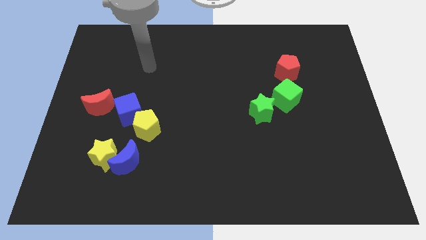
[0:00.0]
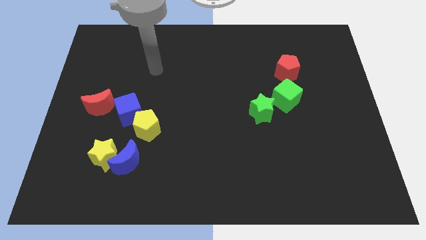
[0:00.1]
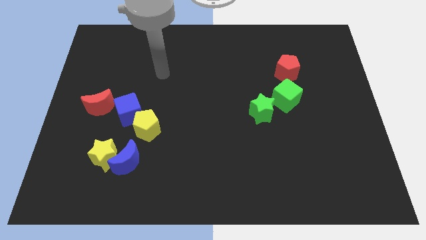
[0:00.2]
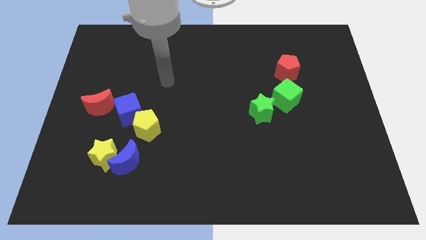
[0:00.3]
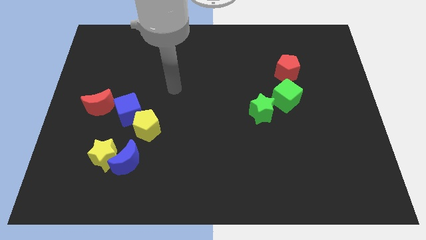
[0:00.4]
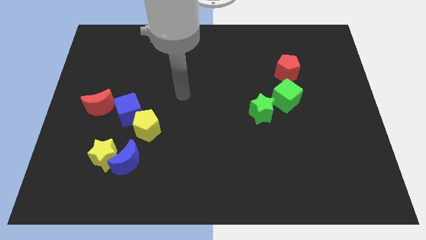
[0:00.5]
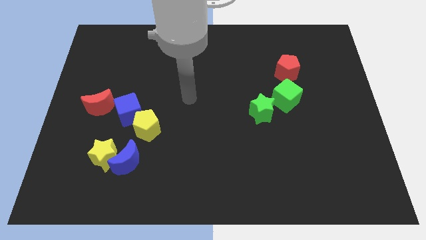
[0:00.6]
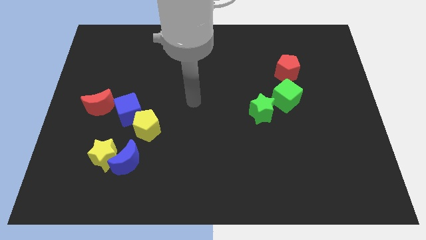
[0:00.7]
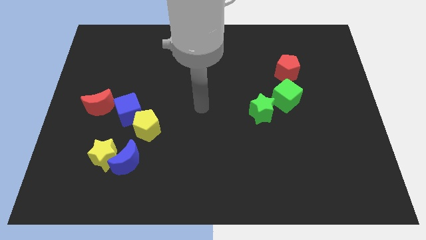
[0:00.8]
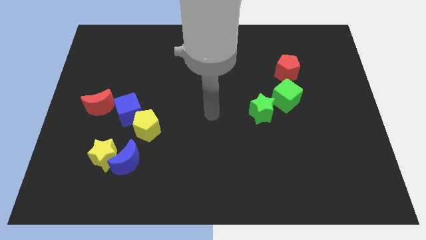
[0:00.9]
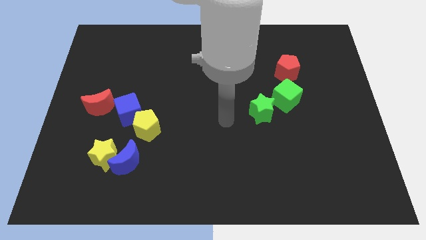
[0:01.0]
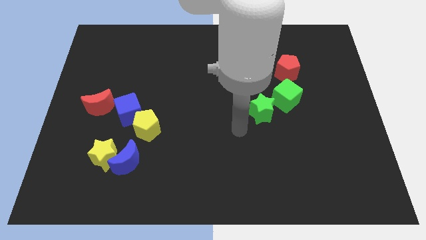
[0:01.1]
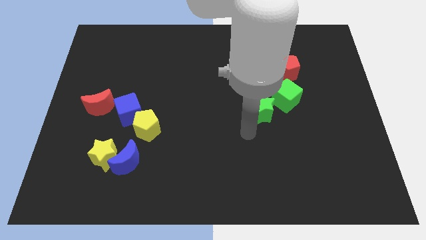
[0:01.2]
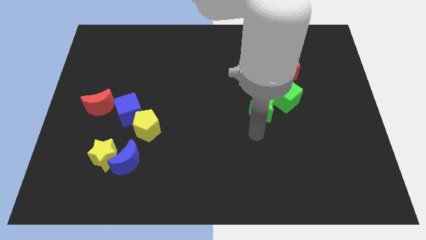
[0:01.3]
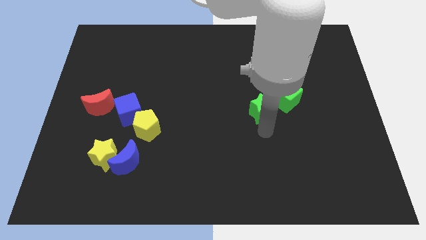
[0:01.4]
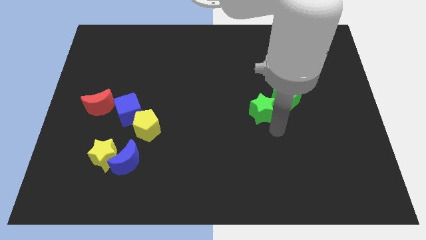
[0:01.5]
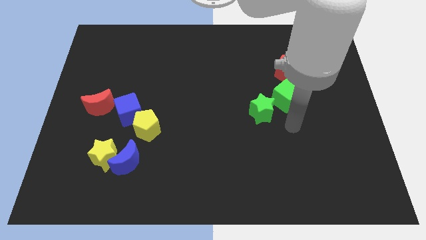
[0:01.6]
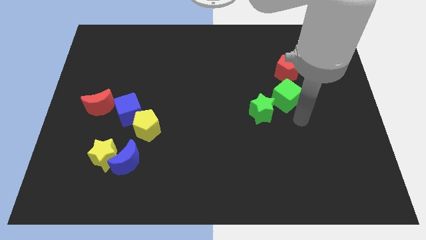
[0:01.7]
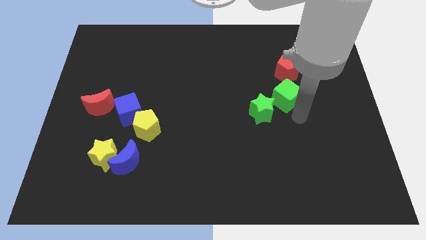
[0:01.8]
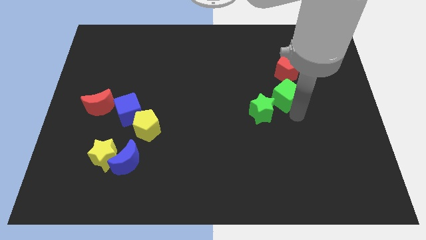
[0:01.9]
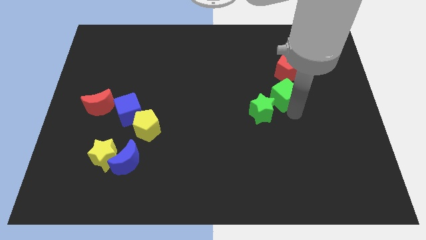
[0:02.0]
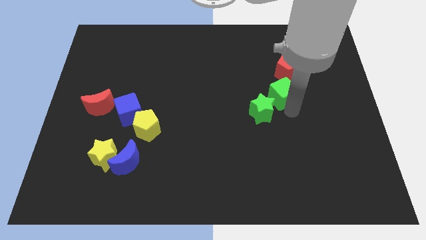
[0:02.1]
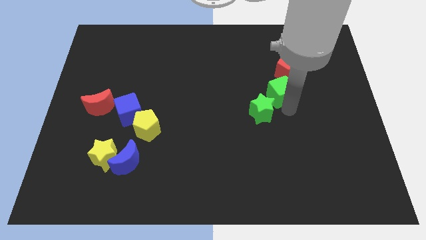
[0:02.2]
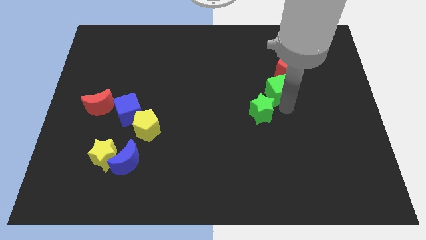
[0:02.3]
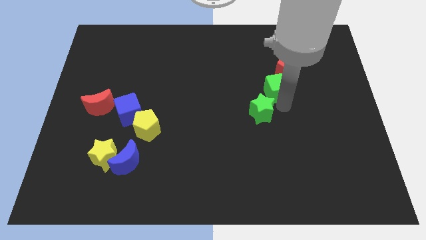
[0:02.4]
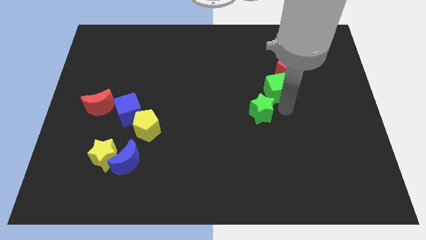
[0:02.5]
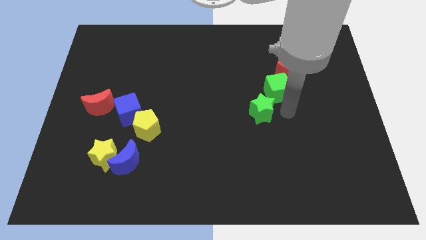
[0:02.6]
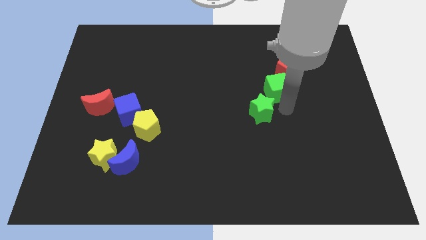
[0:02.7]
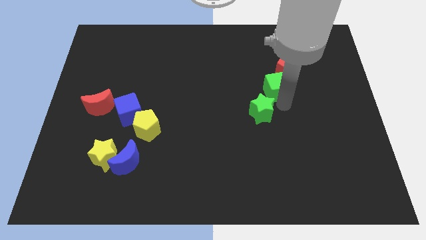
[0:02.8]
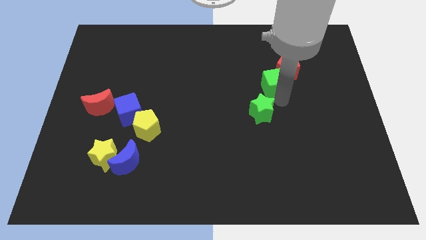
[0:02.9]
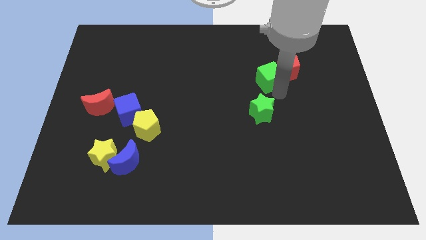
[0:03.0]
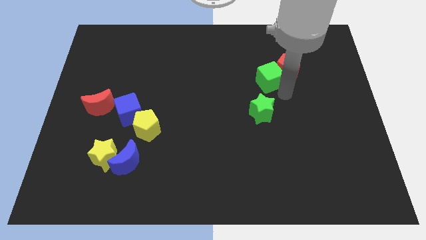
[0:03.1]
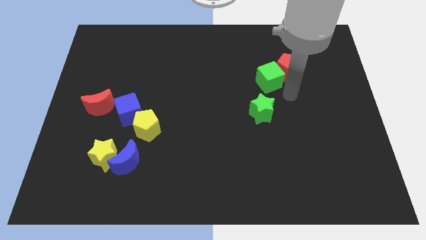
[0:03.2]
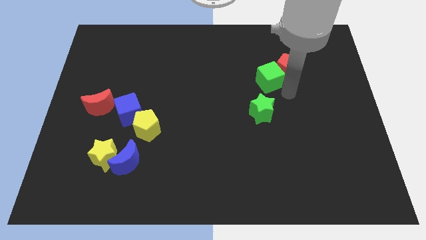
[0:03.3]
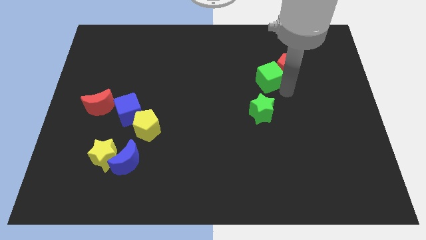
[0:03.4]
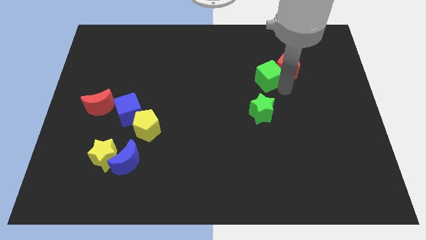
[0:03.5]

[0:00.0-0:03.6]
slide the green cube upwards and left a little bit

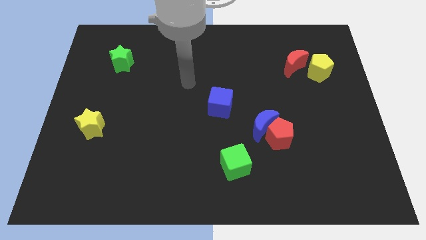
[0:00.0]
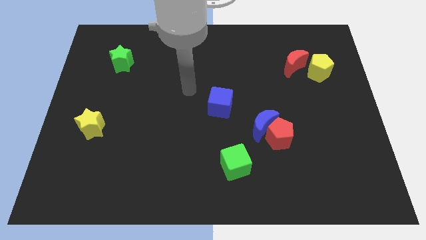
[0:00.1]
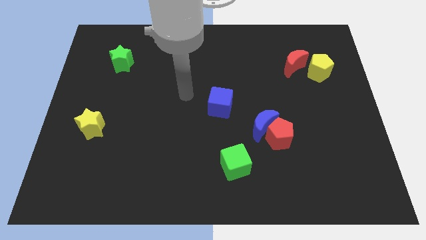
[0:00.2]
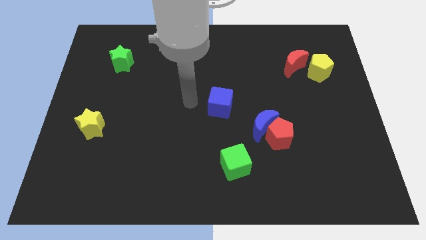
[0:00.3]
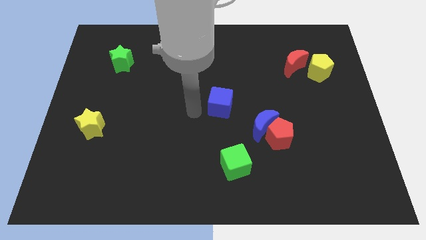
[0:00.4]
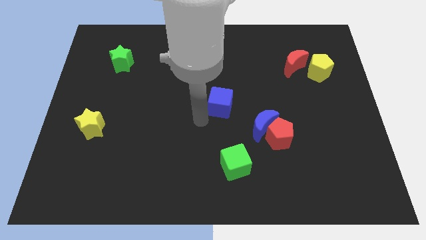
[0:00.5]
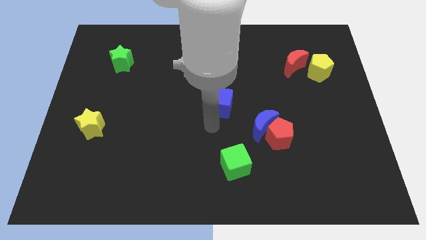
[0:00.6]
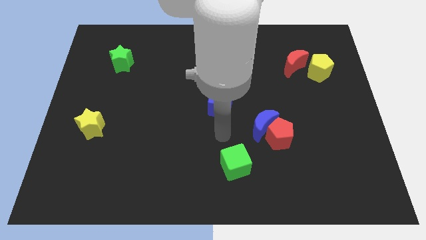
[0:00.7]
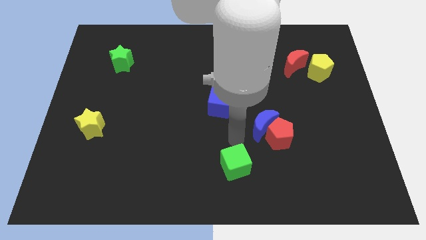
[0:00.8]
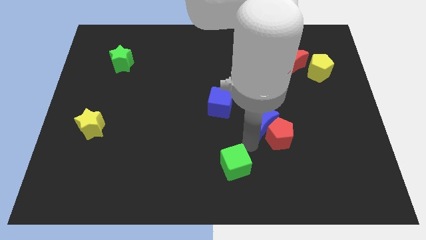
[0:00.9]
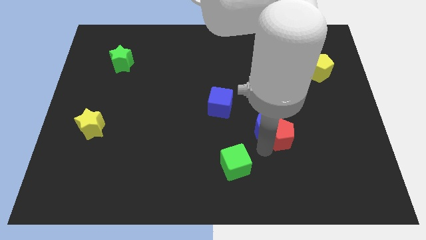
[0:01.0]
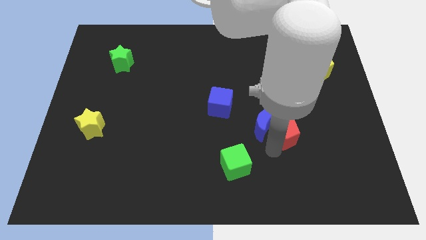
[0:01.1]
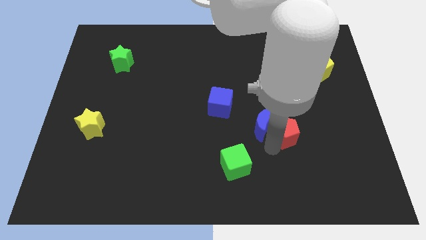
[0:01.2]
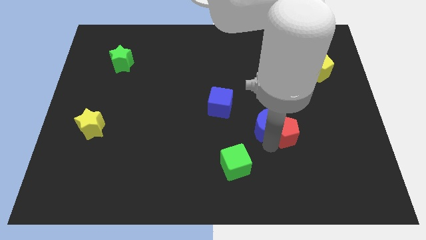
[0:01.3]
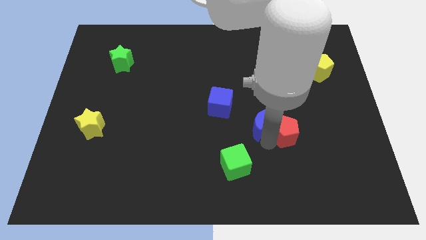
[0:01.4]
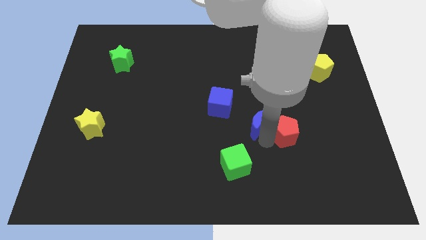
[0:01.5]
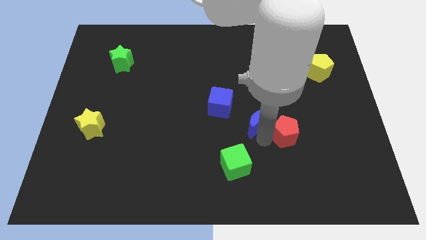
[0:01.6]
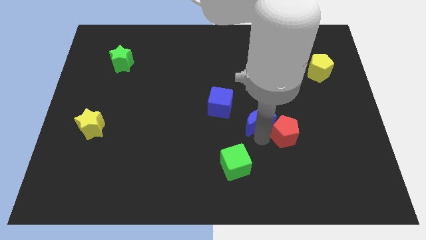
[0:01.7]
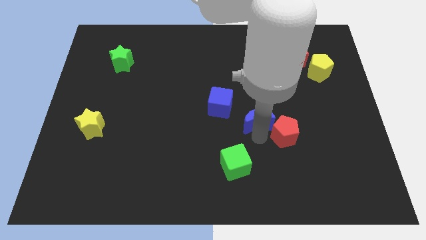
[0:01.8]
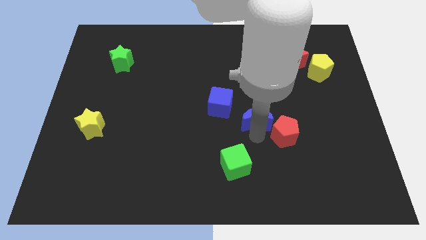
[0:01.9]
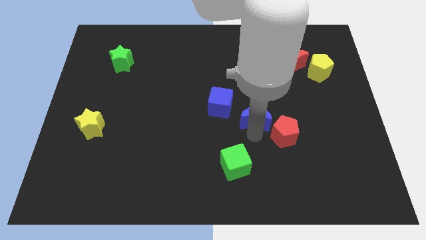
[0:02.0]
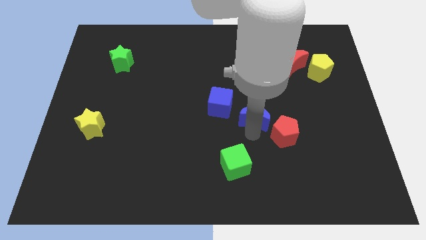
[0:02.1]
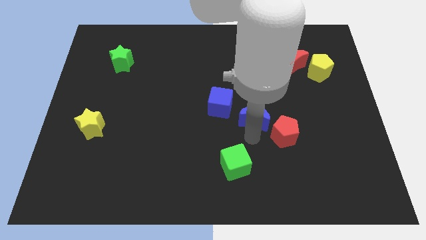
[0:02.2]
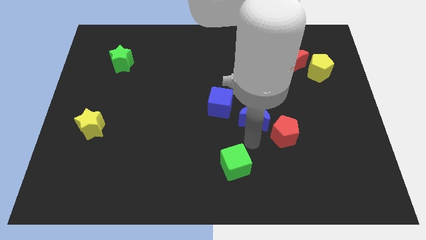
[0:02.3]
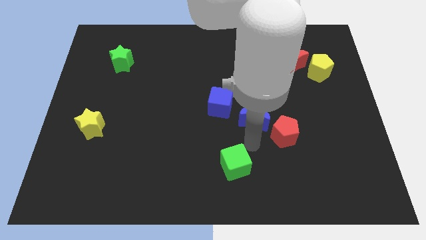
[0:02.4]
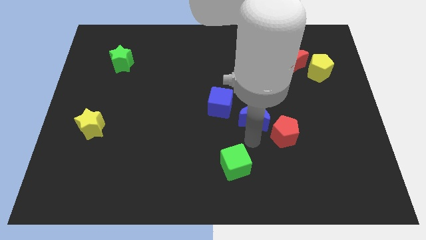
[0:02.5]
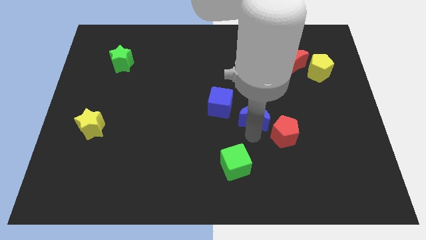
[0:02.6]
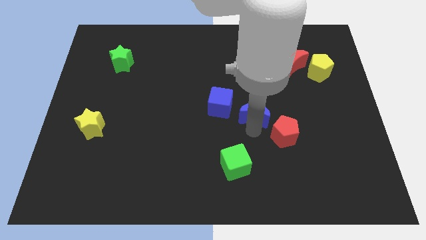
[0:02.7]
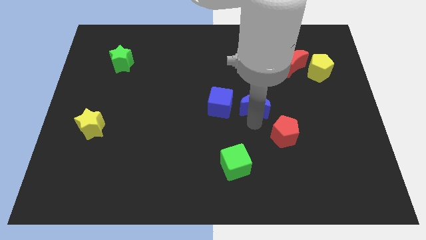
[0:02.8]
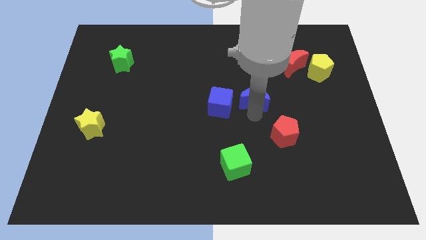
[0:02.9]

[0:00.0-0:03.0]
slightly move the blue moon upwards

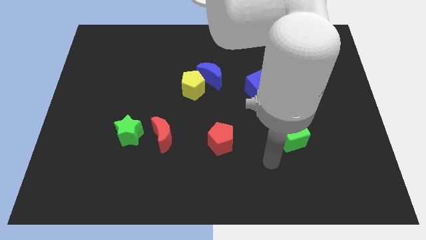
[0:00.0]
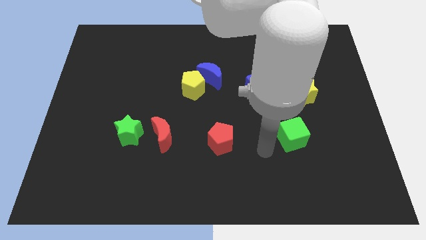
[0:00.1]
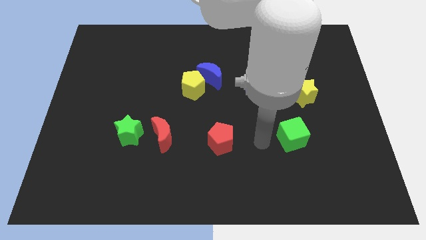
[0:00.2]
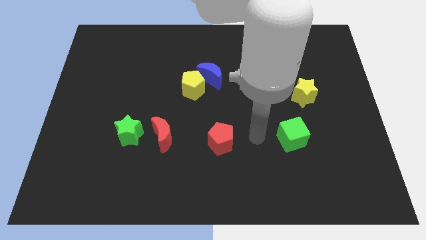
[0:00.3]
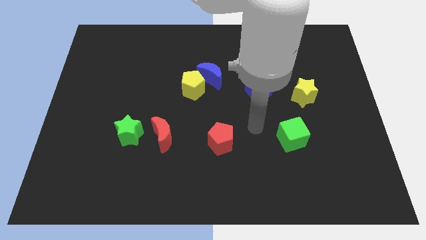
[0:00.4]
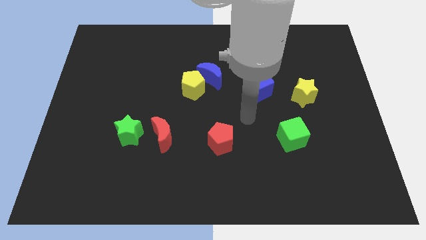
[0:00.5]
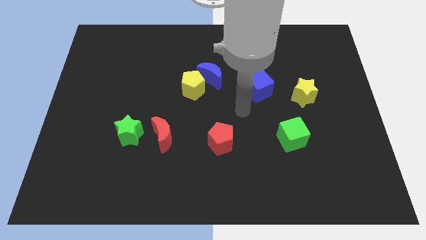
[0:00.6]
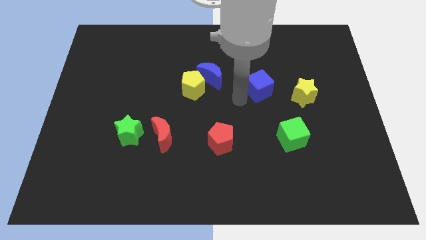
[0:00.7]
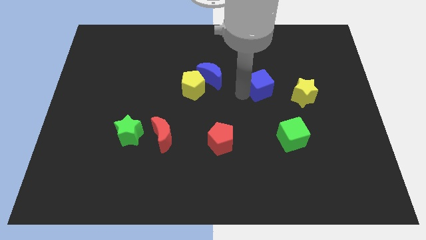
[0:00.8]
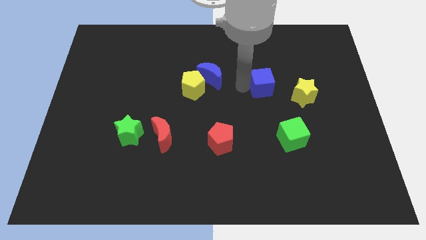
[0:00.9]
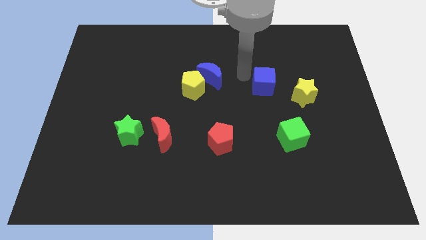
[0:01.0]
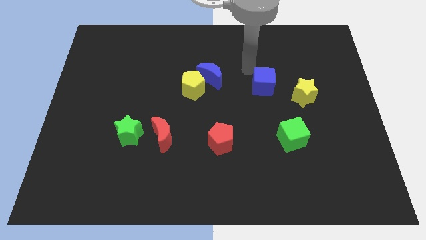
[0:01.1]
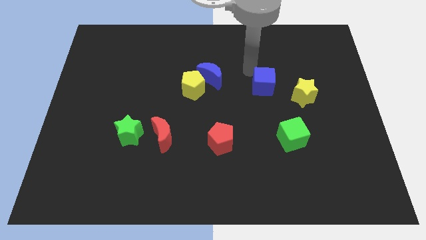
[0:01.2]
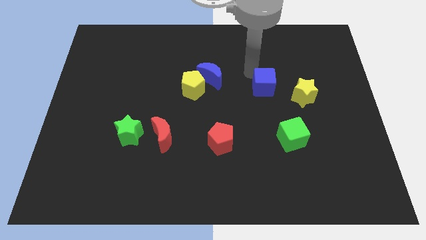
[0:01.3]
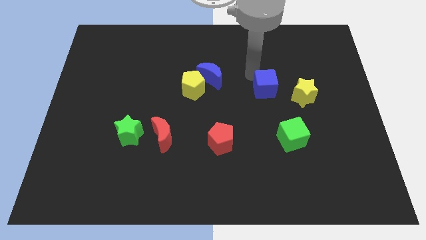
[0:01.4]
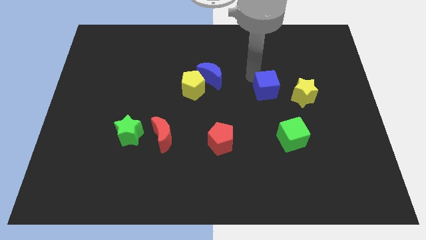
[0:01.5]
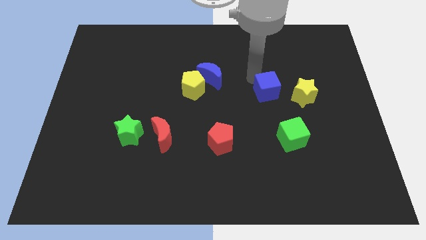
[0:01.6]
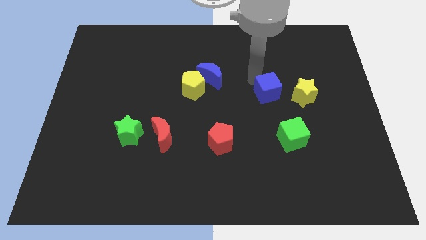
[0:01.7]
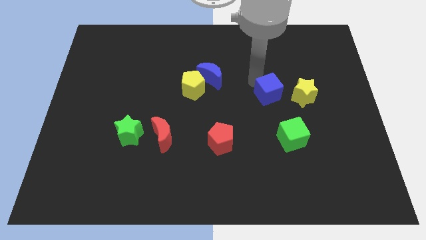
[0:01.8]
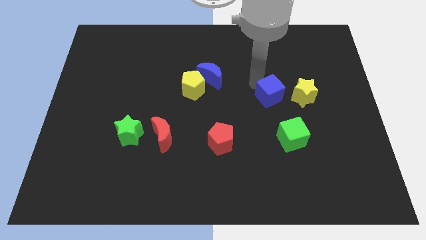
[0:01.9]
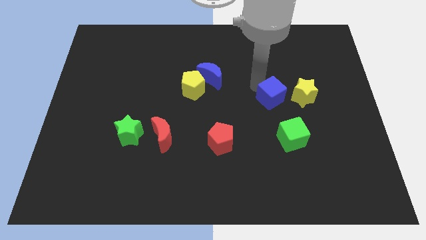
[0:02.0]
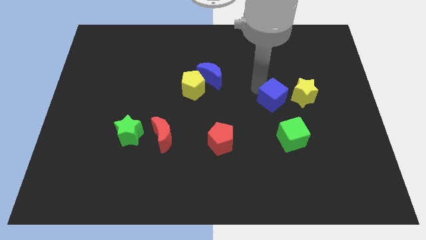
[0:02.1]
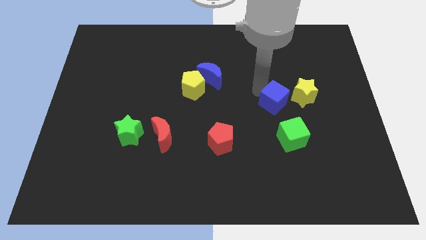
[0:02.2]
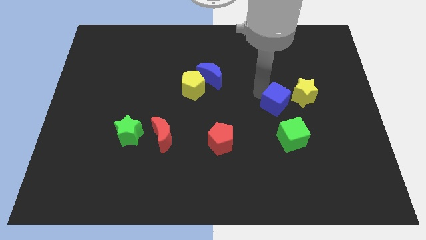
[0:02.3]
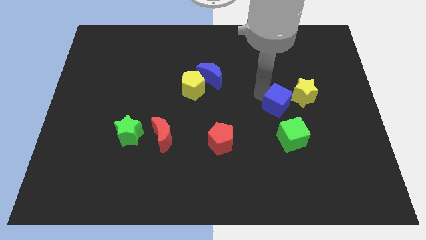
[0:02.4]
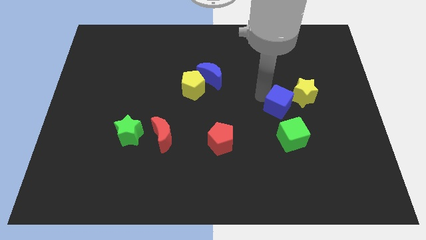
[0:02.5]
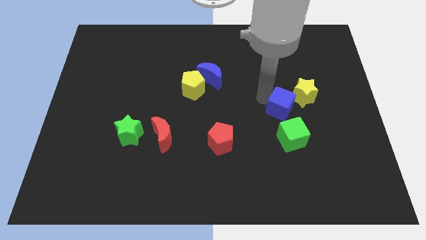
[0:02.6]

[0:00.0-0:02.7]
slide the blue cube a bit down and then to the right
